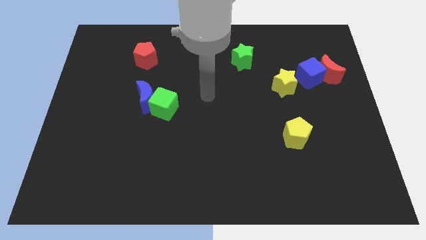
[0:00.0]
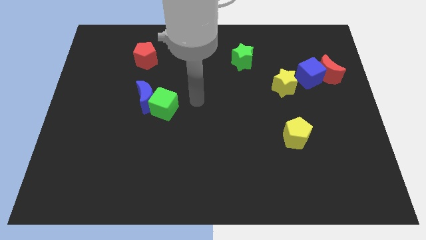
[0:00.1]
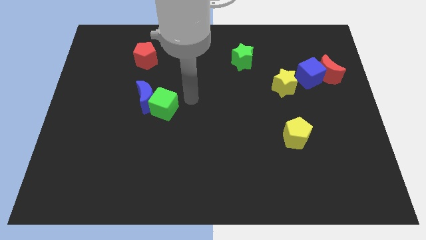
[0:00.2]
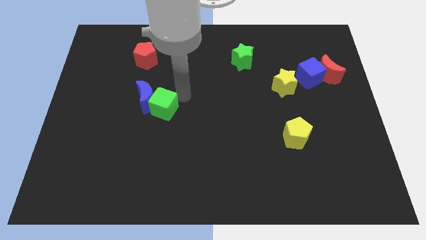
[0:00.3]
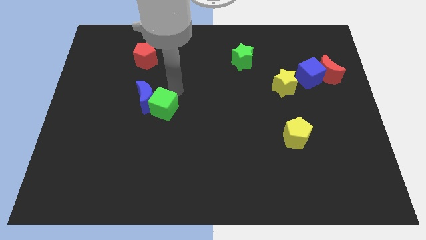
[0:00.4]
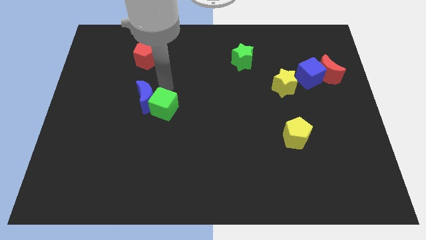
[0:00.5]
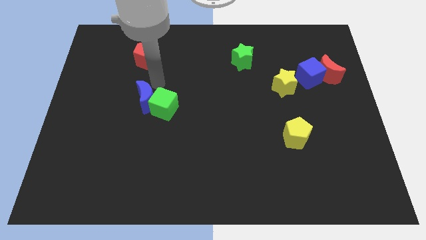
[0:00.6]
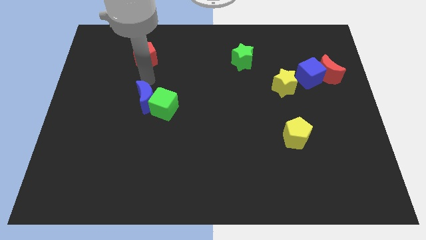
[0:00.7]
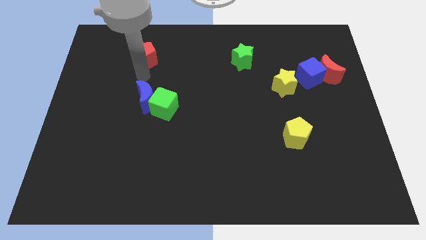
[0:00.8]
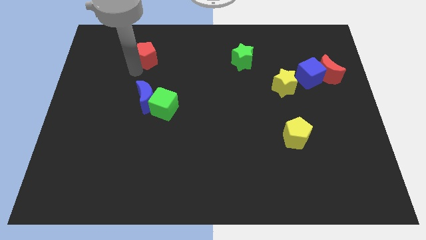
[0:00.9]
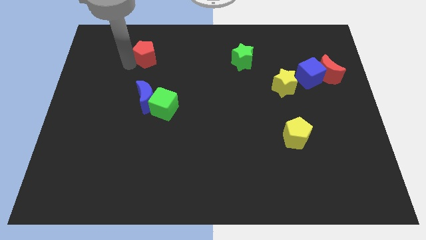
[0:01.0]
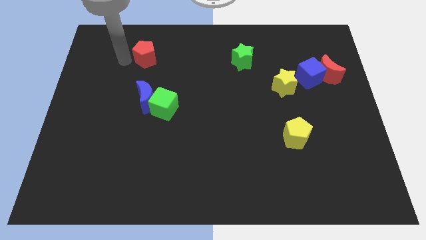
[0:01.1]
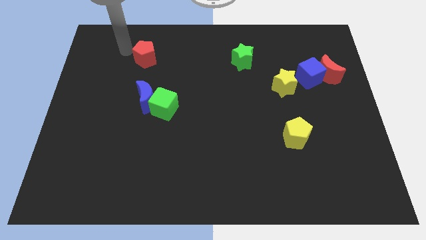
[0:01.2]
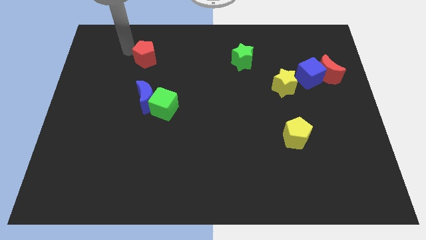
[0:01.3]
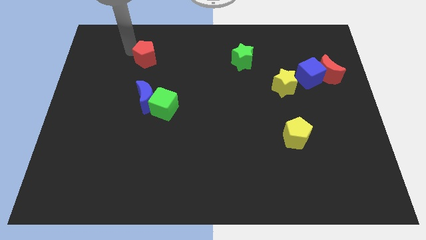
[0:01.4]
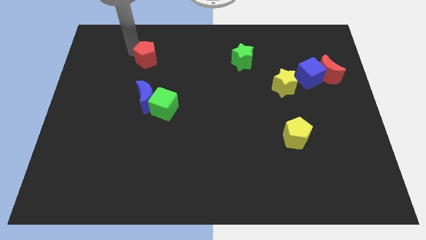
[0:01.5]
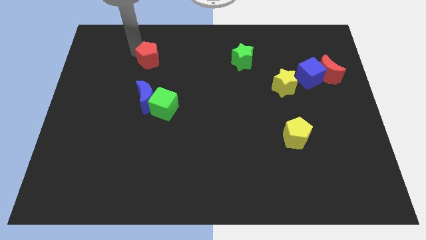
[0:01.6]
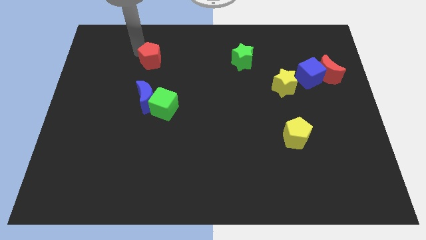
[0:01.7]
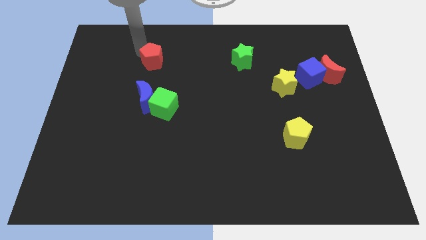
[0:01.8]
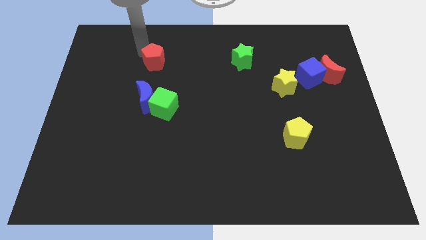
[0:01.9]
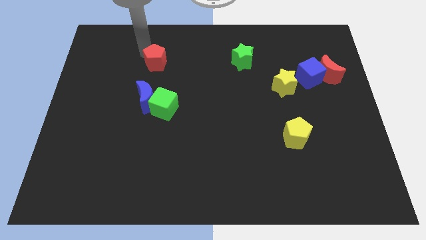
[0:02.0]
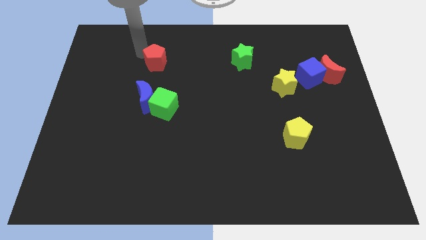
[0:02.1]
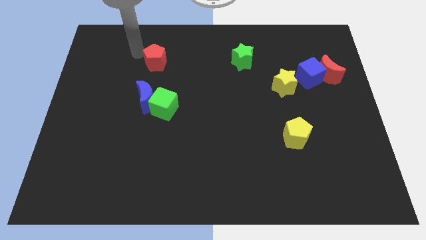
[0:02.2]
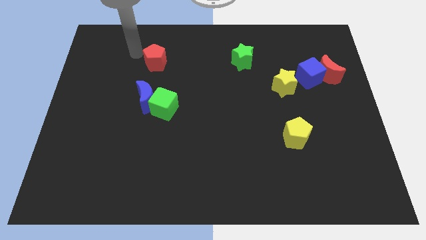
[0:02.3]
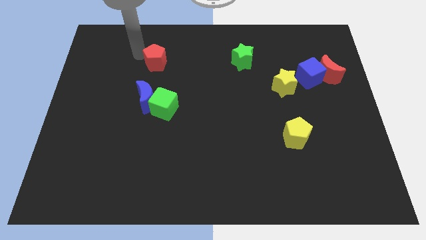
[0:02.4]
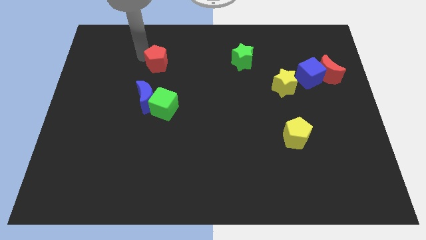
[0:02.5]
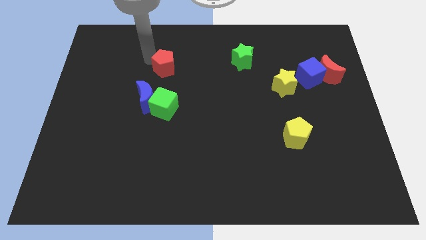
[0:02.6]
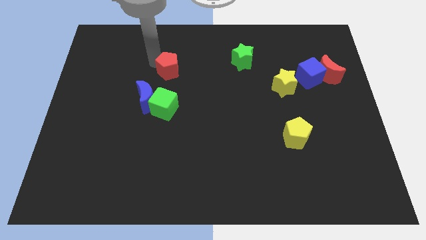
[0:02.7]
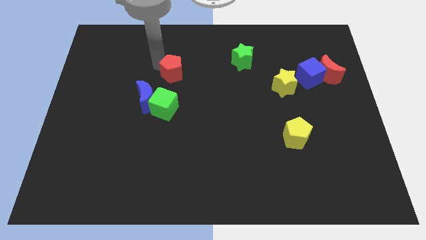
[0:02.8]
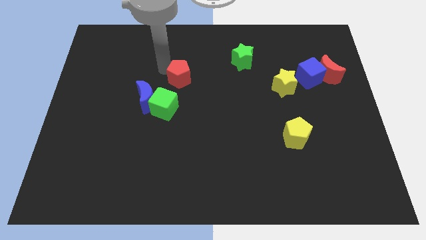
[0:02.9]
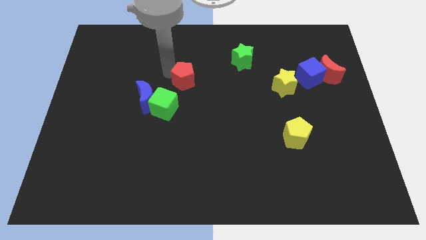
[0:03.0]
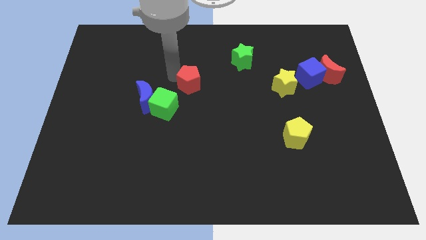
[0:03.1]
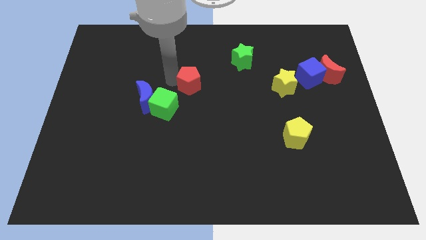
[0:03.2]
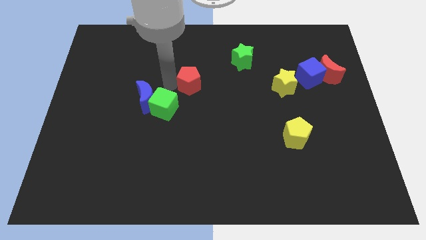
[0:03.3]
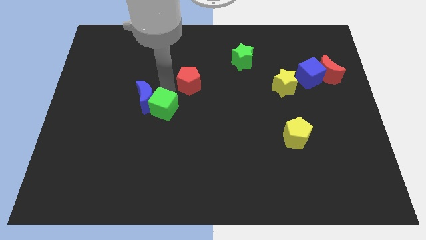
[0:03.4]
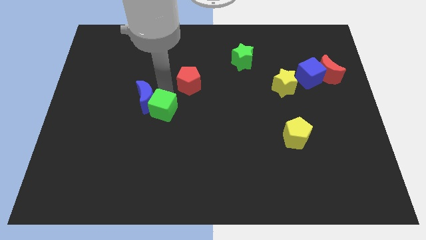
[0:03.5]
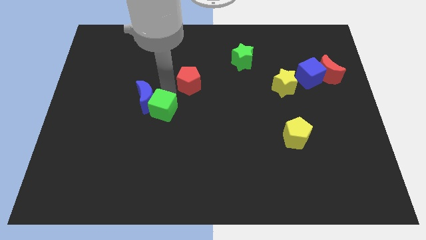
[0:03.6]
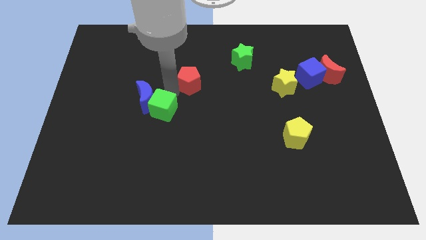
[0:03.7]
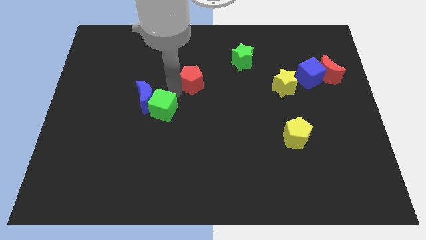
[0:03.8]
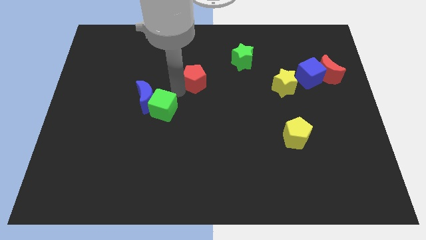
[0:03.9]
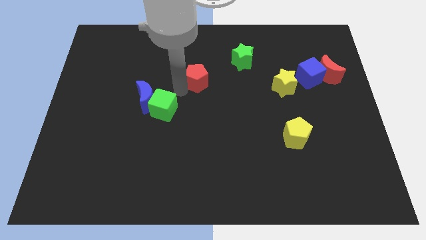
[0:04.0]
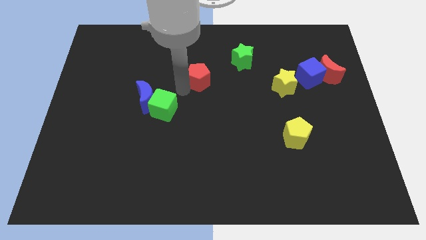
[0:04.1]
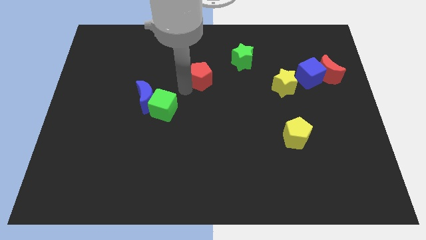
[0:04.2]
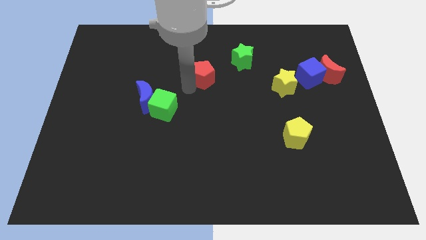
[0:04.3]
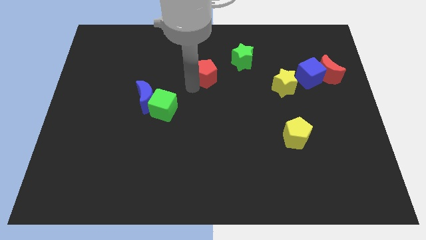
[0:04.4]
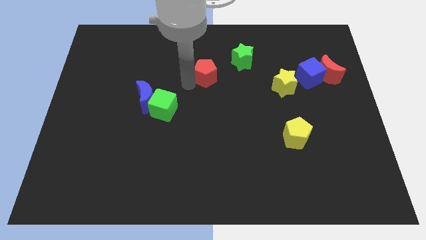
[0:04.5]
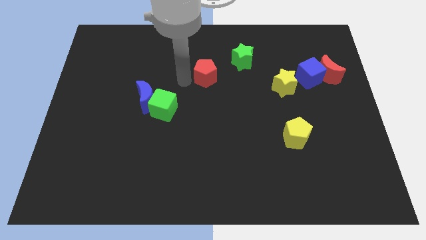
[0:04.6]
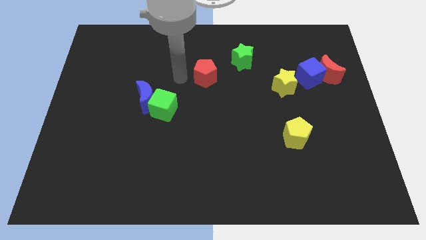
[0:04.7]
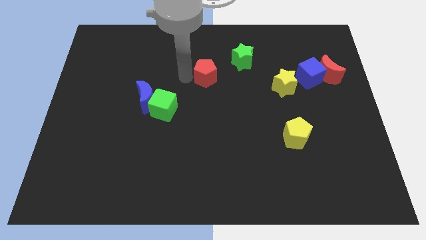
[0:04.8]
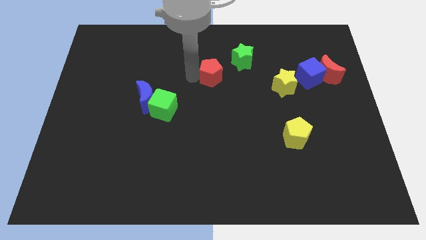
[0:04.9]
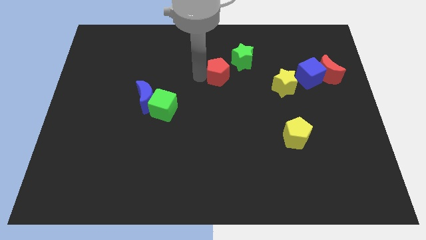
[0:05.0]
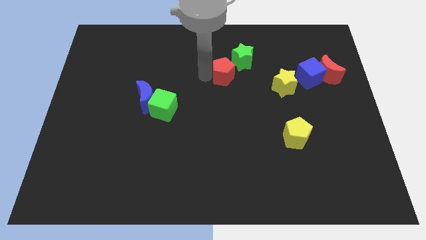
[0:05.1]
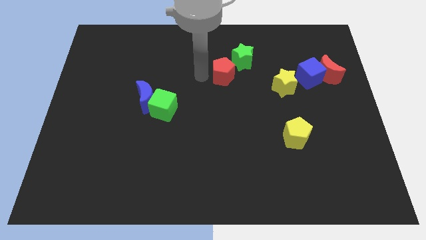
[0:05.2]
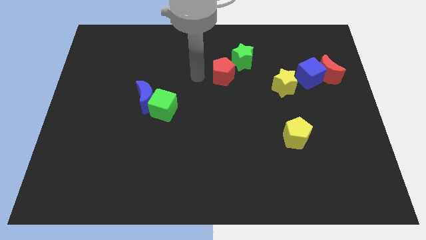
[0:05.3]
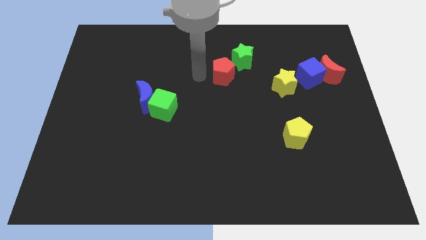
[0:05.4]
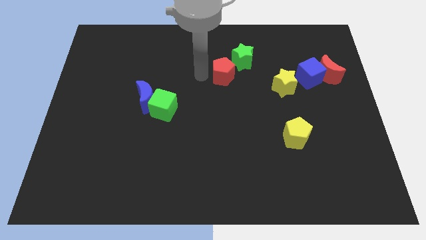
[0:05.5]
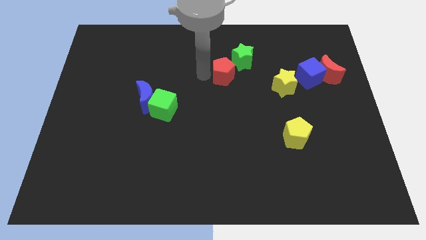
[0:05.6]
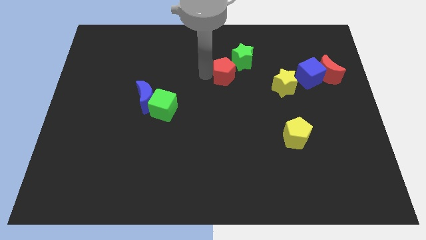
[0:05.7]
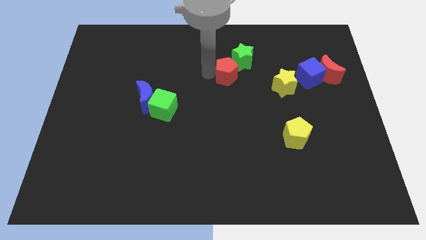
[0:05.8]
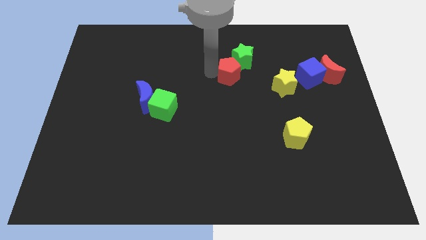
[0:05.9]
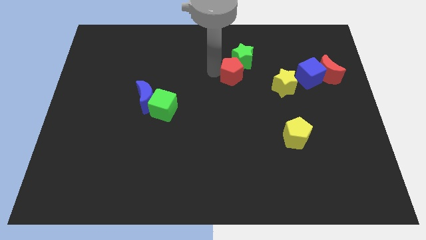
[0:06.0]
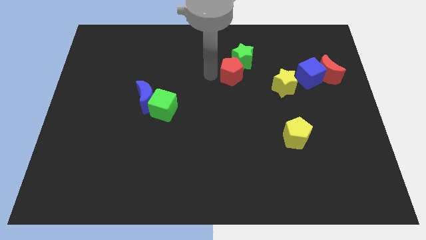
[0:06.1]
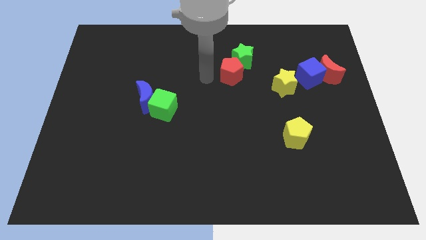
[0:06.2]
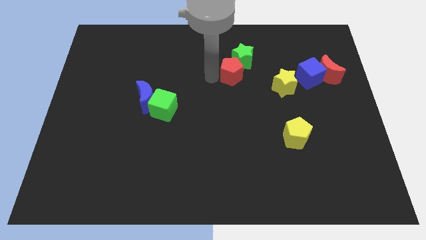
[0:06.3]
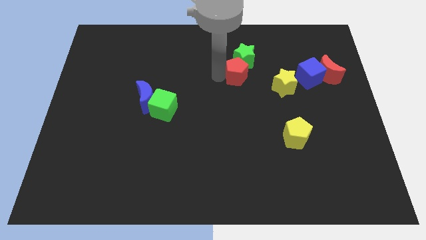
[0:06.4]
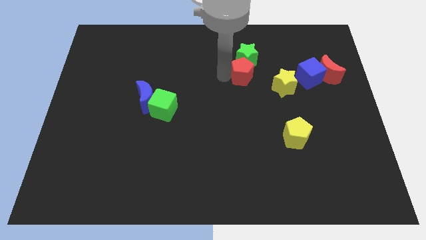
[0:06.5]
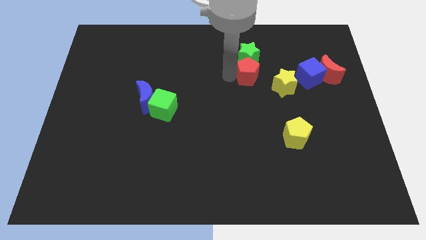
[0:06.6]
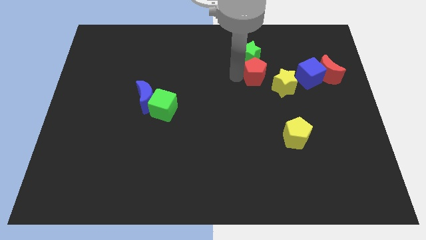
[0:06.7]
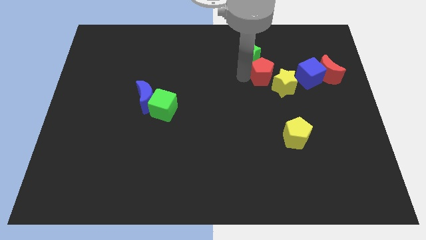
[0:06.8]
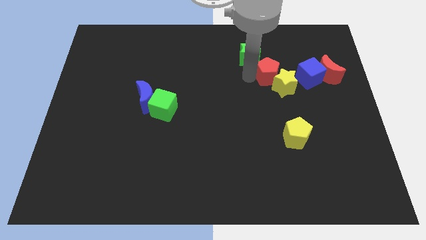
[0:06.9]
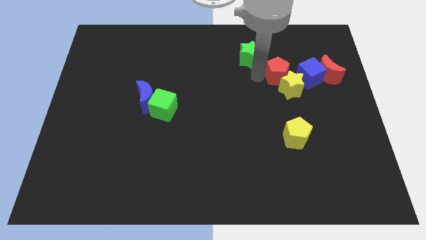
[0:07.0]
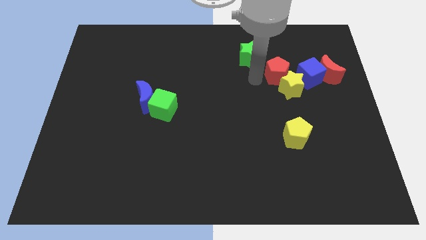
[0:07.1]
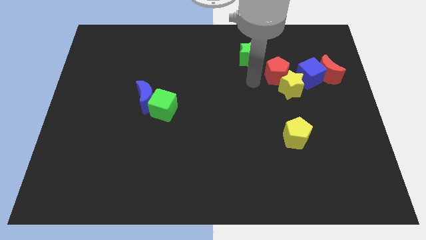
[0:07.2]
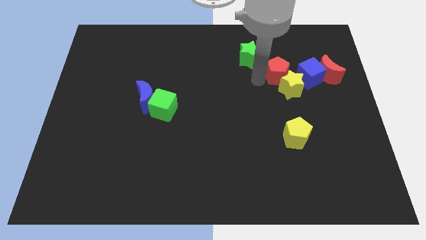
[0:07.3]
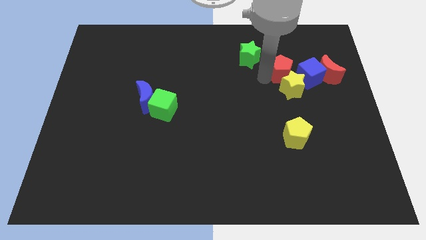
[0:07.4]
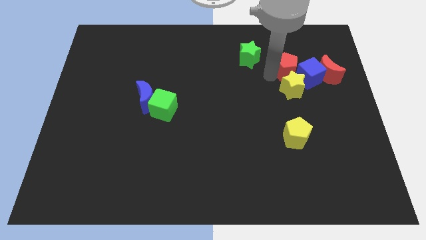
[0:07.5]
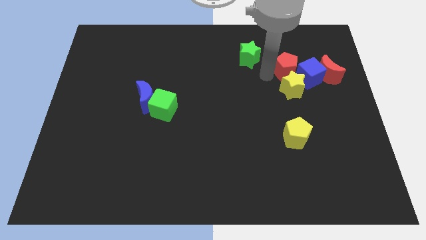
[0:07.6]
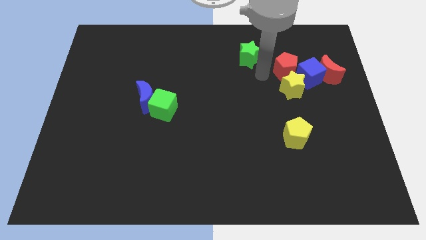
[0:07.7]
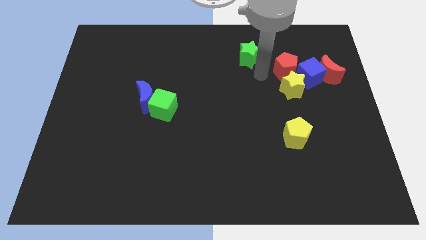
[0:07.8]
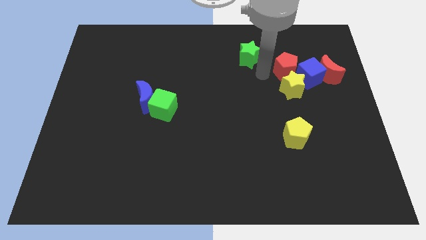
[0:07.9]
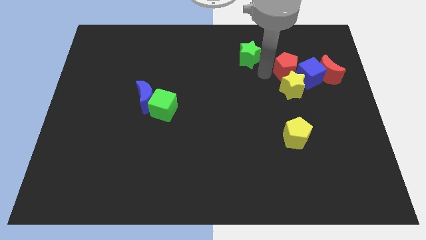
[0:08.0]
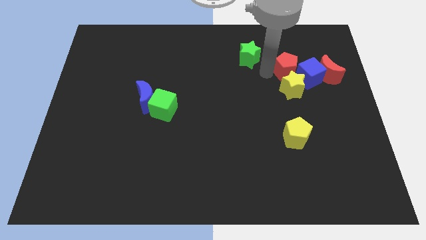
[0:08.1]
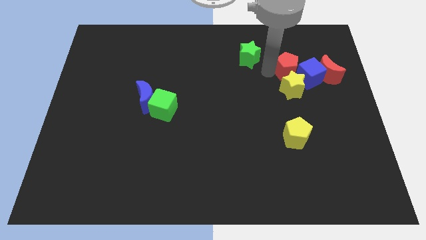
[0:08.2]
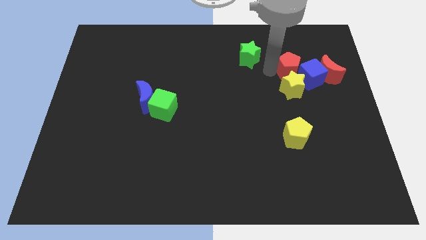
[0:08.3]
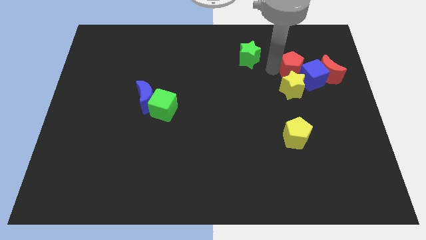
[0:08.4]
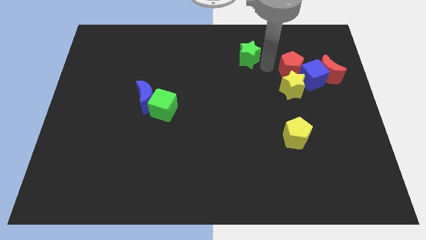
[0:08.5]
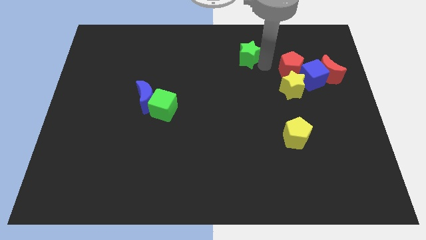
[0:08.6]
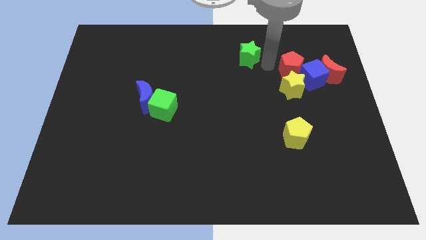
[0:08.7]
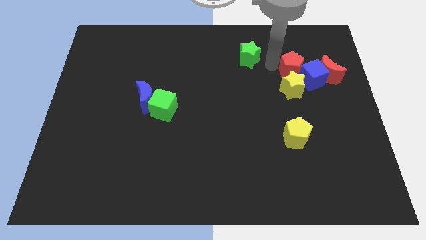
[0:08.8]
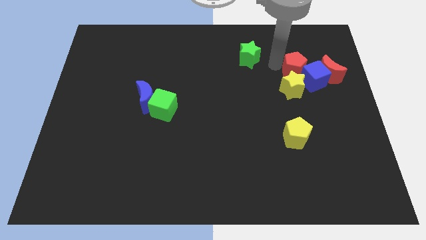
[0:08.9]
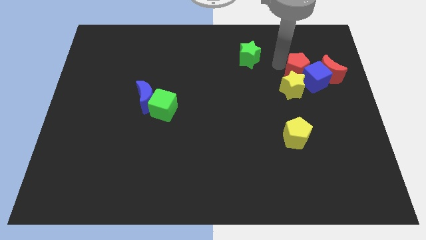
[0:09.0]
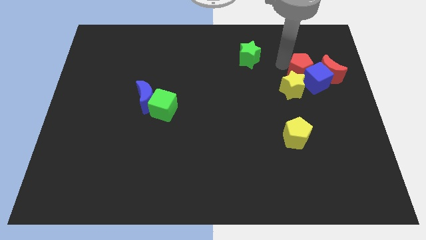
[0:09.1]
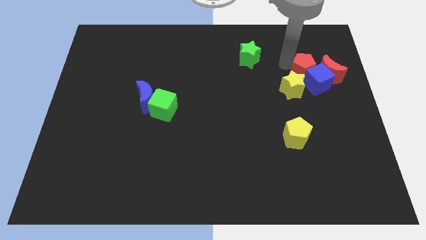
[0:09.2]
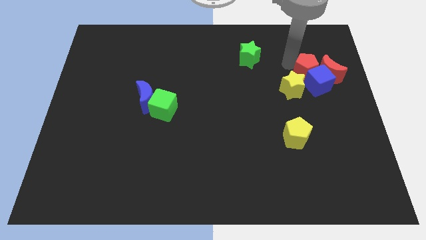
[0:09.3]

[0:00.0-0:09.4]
move the red pentagon close to the red moon
